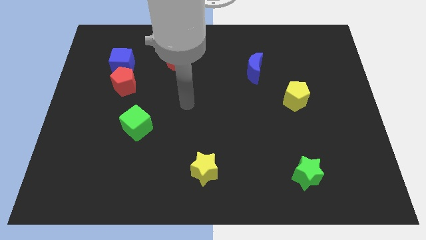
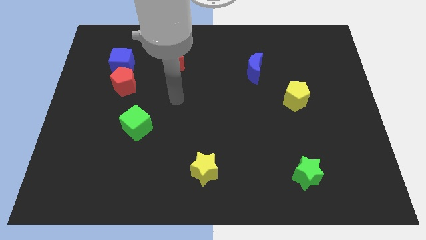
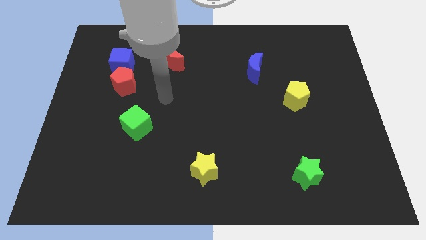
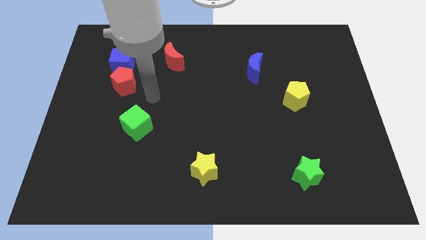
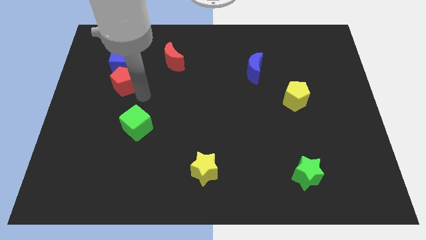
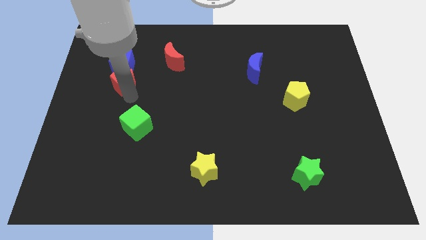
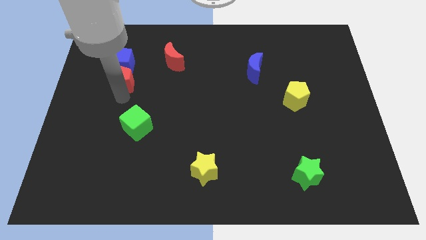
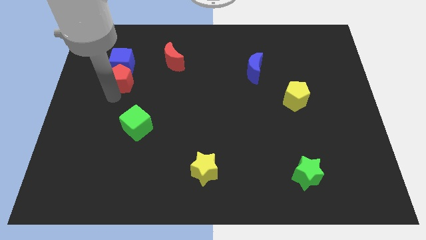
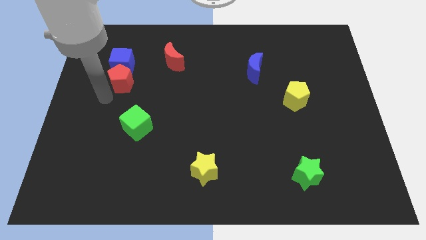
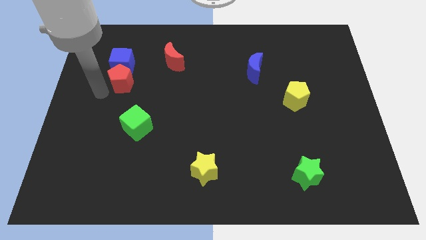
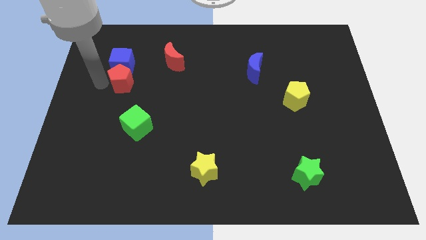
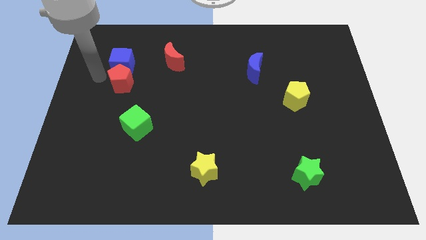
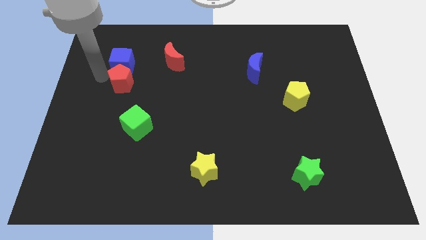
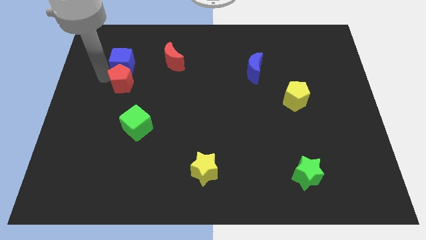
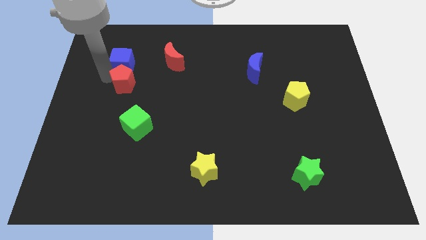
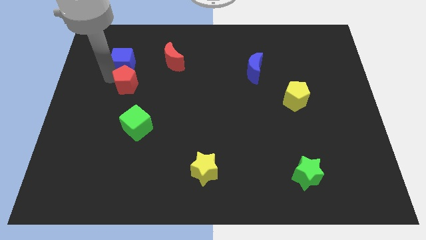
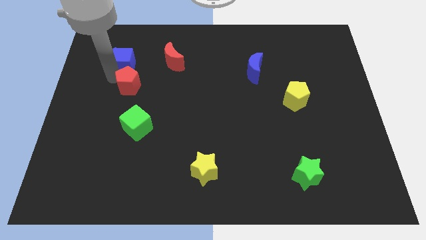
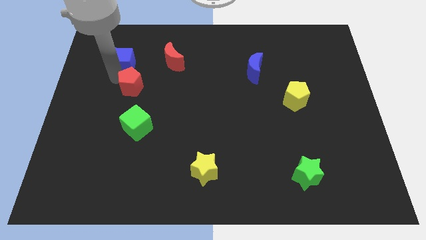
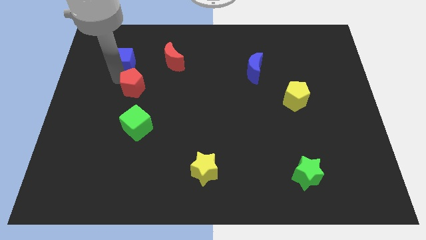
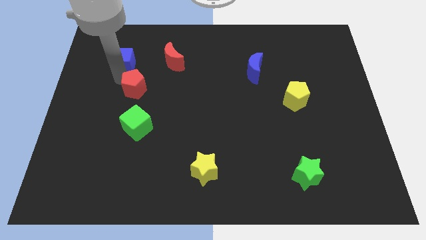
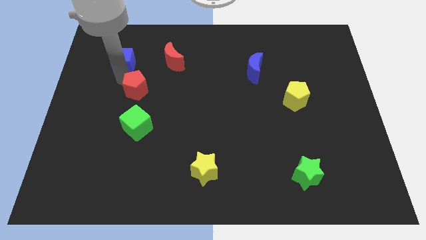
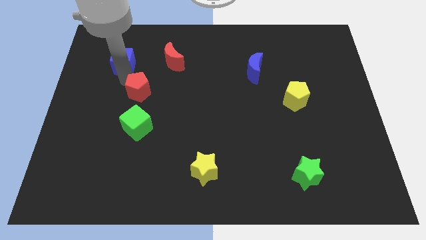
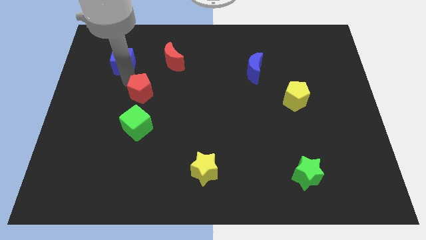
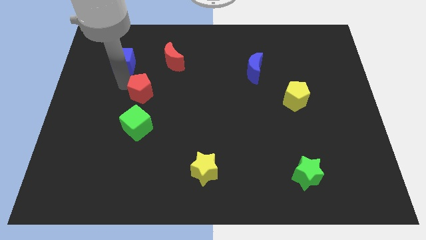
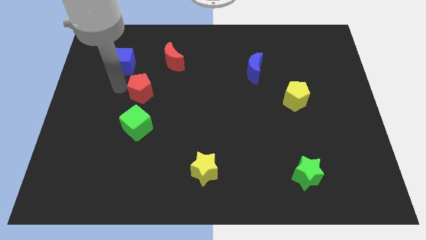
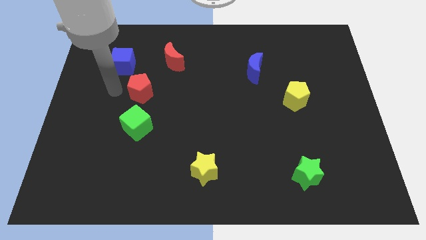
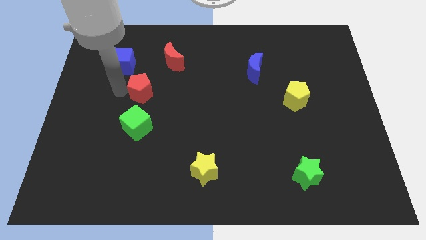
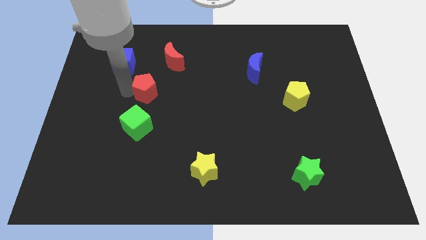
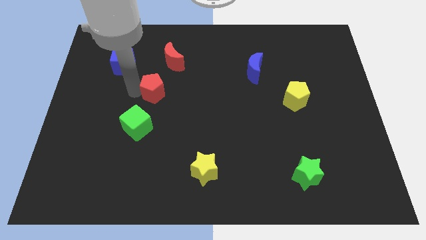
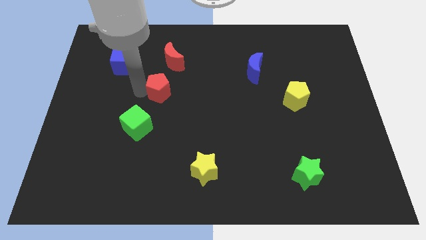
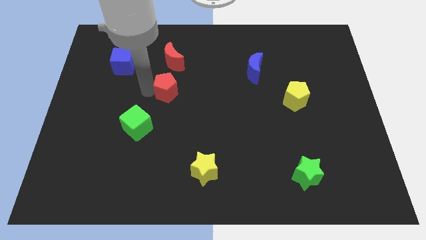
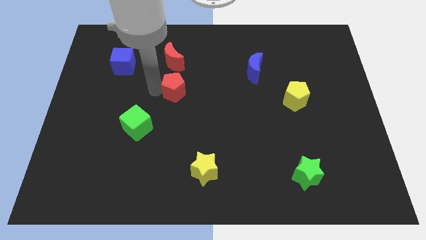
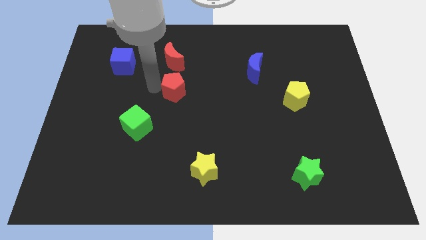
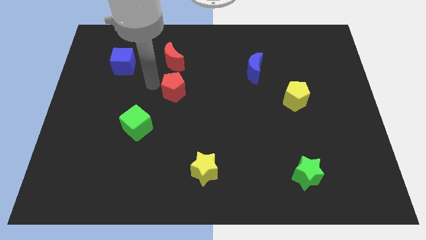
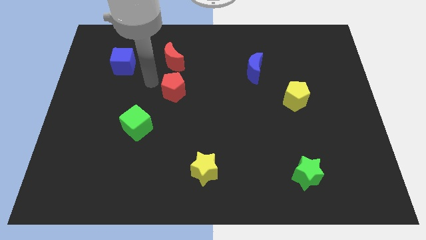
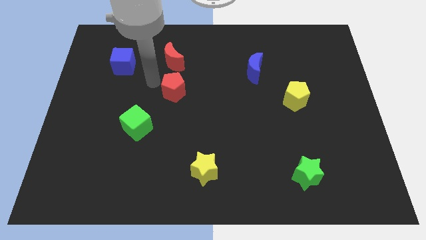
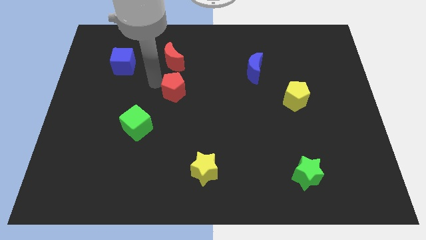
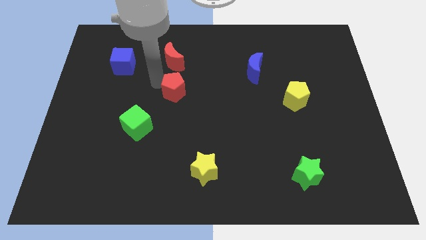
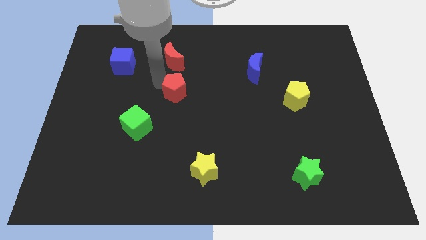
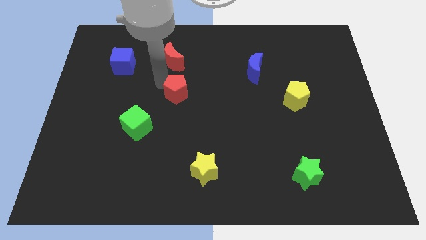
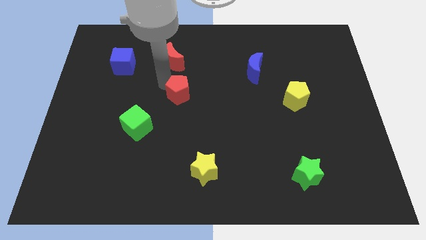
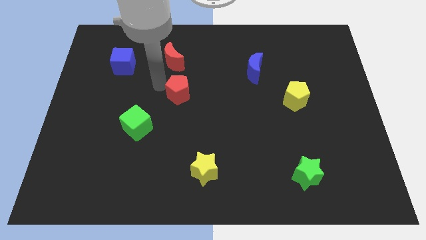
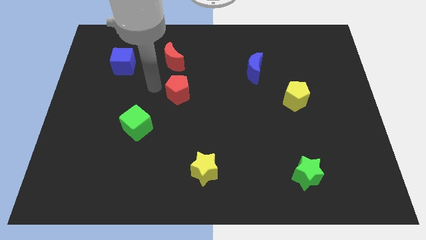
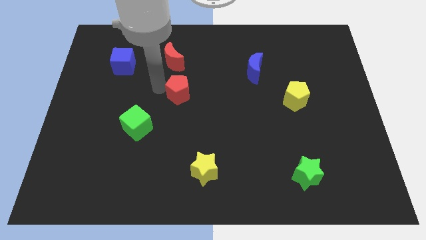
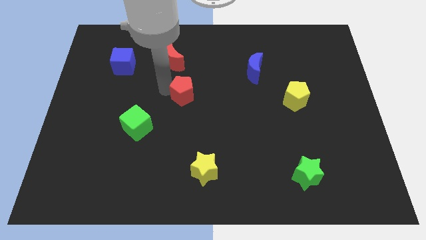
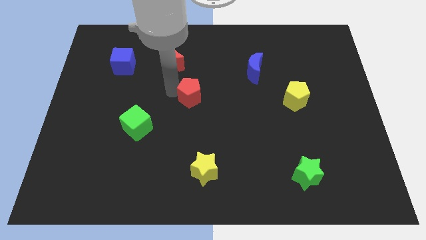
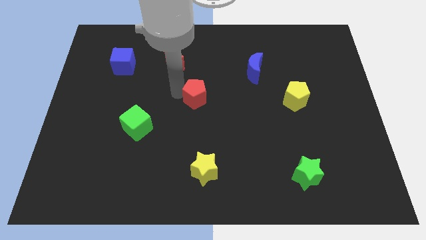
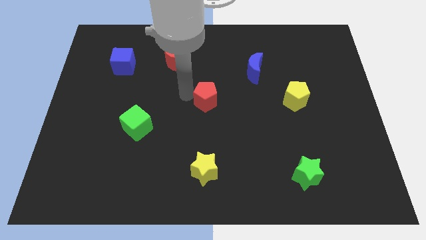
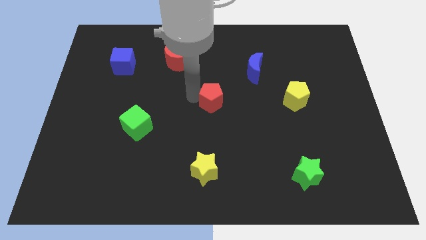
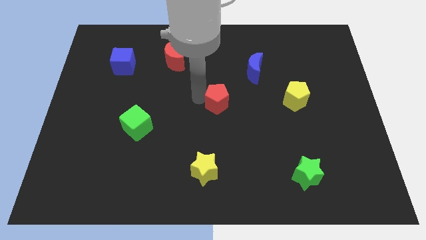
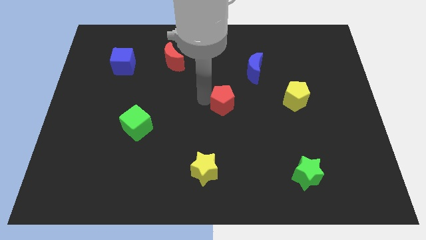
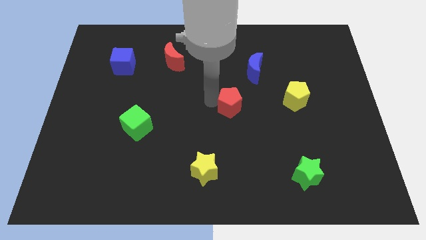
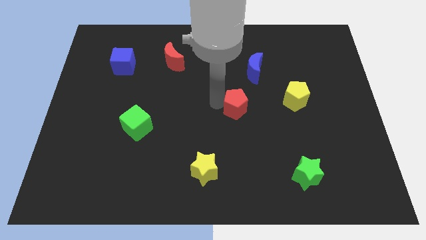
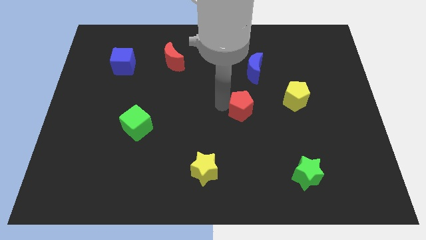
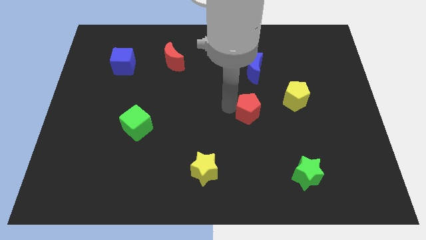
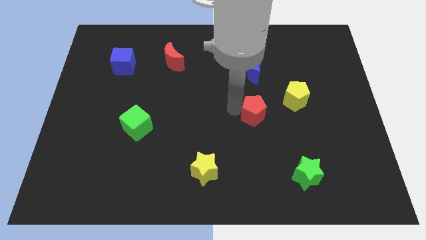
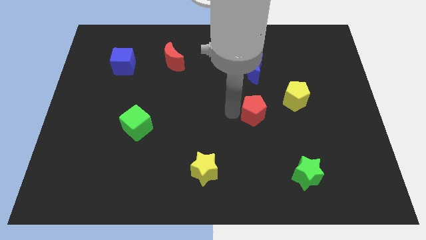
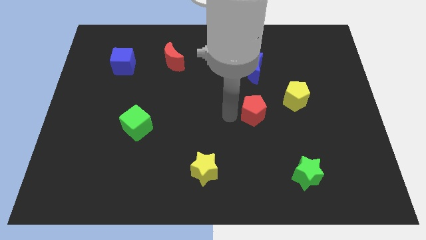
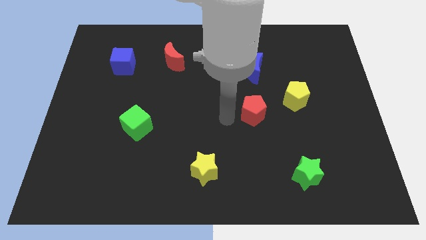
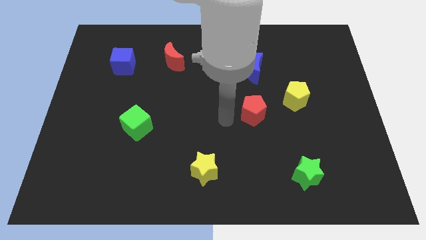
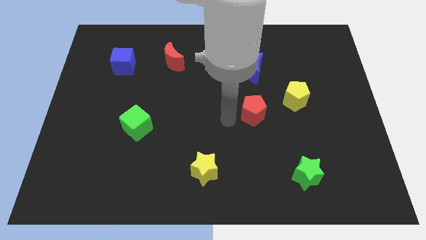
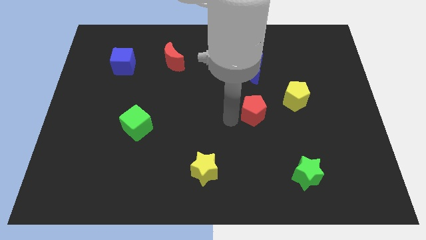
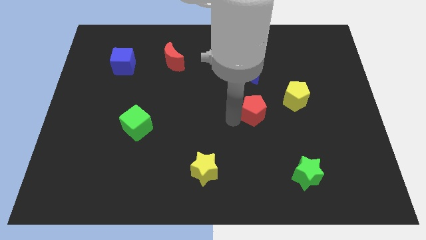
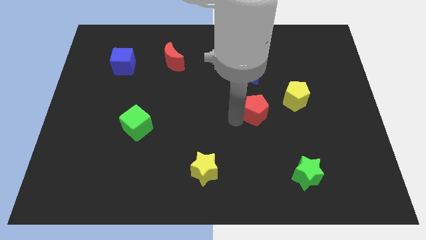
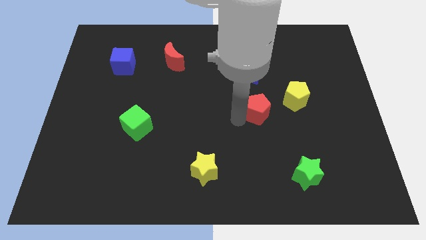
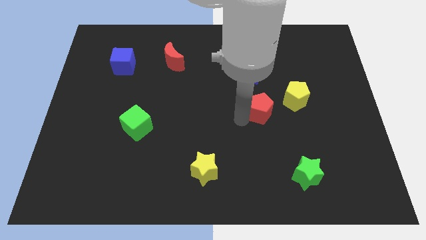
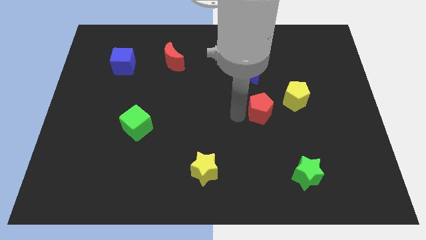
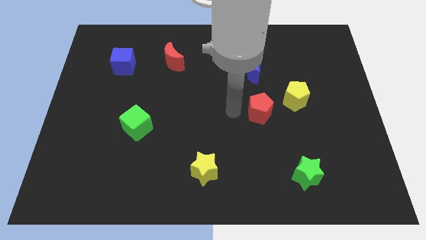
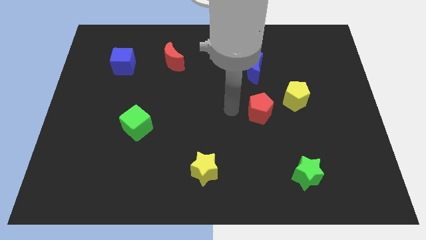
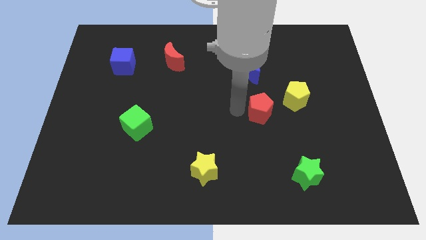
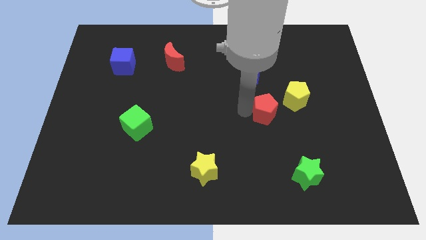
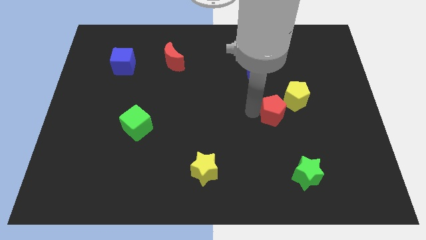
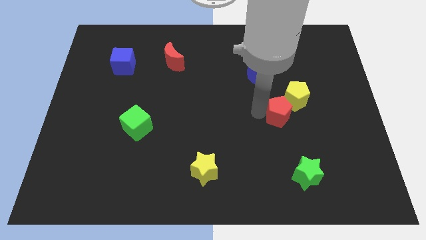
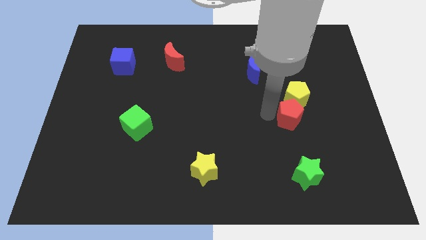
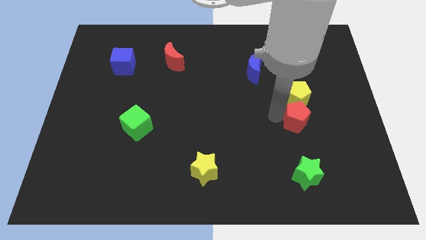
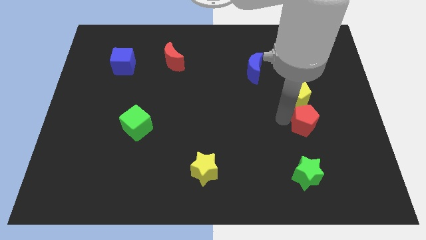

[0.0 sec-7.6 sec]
push the red pentagon to the bottom right side of the yellow pentagon
